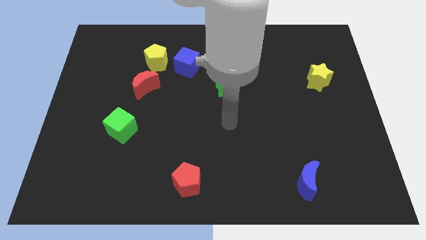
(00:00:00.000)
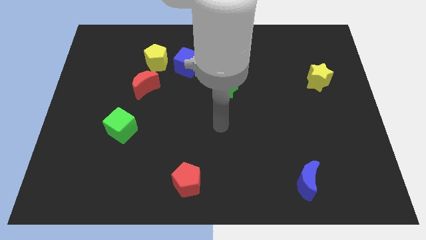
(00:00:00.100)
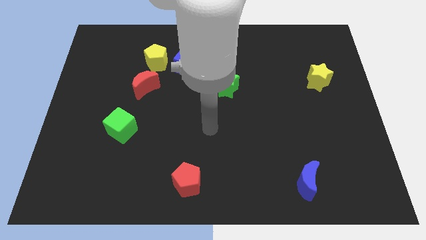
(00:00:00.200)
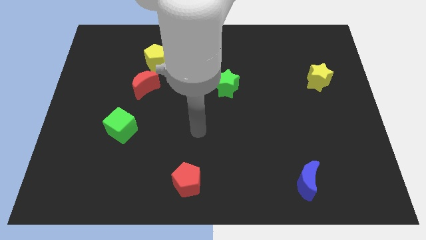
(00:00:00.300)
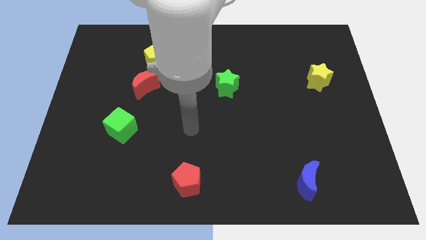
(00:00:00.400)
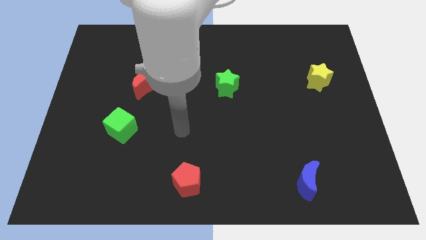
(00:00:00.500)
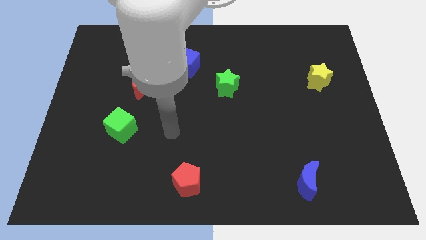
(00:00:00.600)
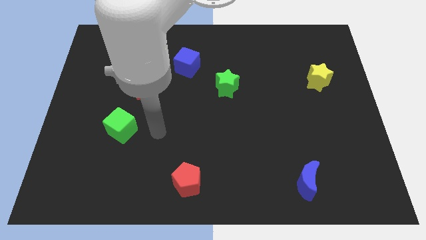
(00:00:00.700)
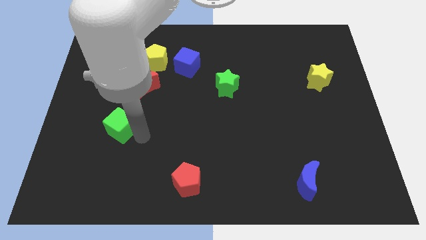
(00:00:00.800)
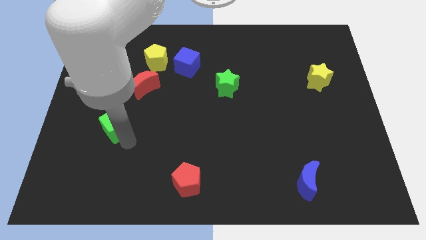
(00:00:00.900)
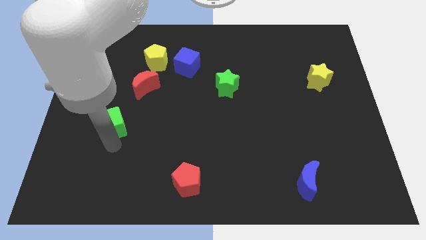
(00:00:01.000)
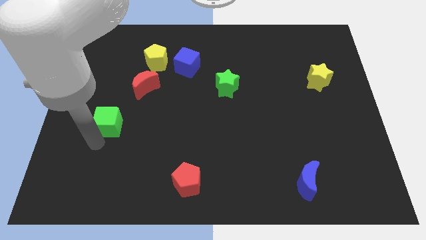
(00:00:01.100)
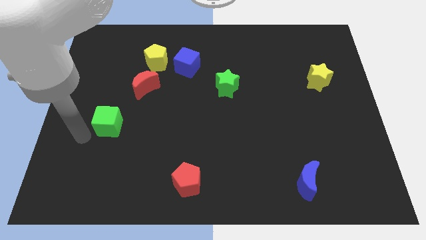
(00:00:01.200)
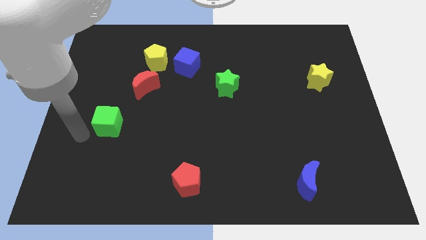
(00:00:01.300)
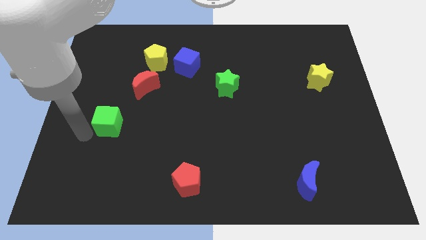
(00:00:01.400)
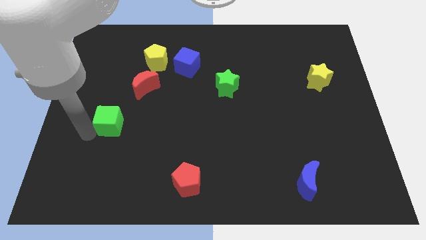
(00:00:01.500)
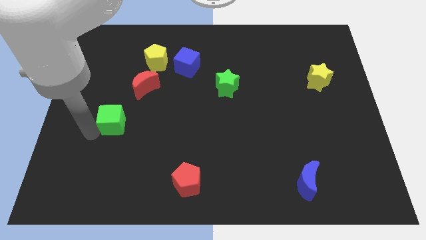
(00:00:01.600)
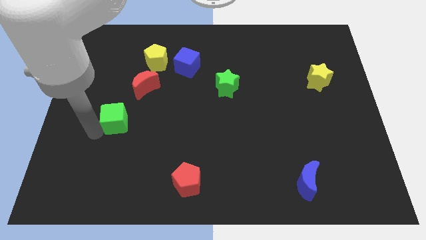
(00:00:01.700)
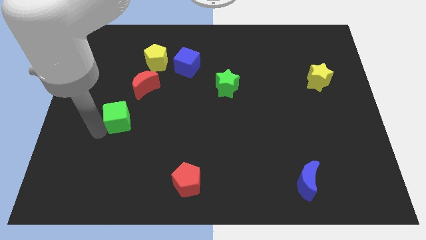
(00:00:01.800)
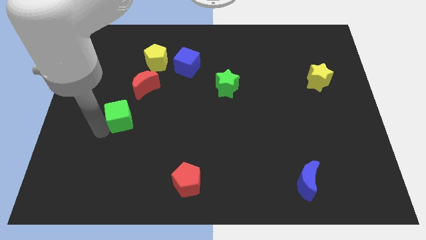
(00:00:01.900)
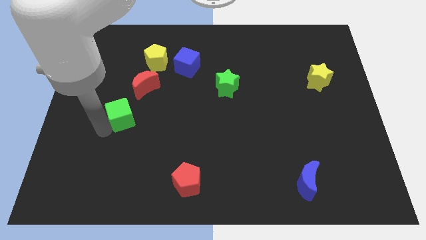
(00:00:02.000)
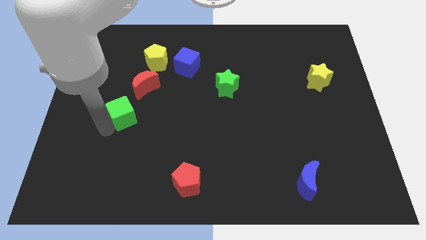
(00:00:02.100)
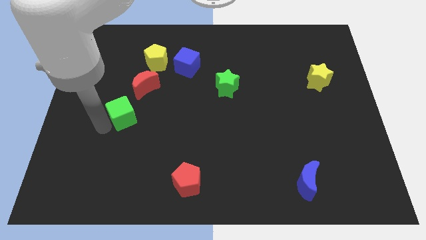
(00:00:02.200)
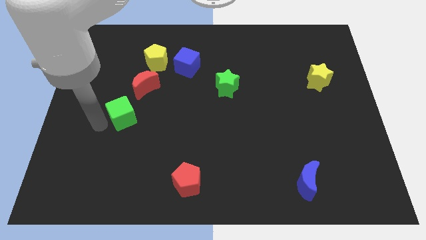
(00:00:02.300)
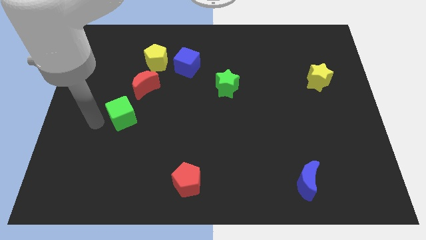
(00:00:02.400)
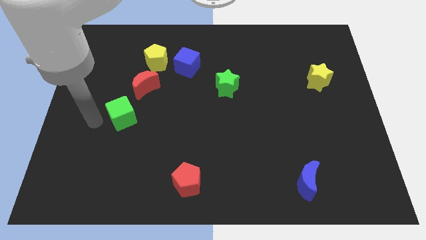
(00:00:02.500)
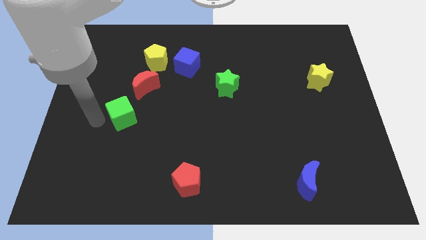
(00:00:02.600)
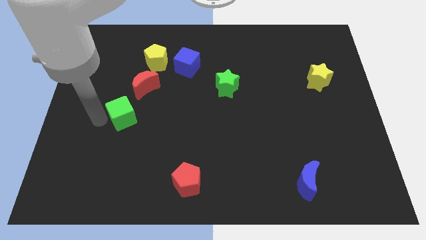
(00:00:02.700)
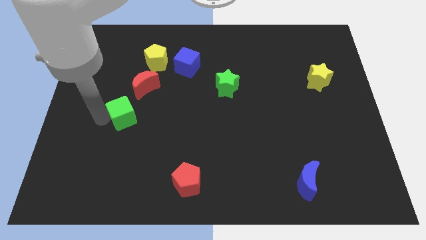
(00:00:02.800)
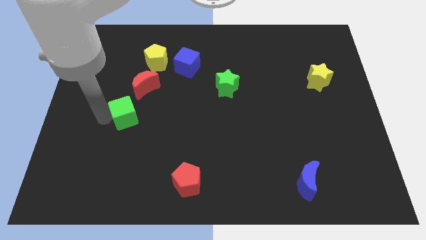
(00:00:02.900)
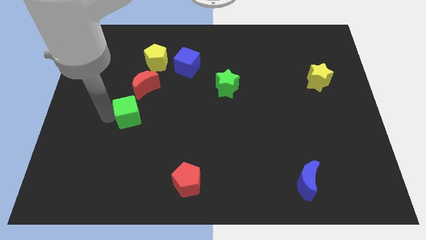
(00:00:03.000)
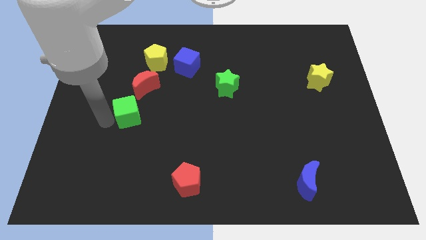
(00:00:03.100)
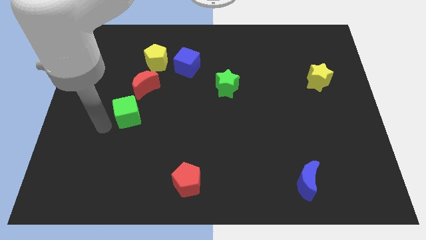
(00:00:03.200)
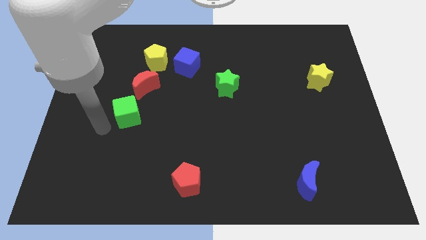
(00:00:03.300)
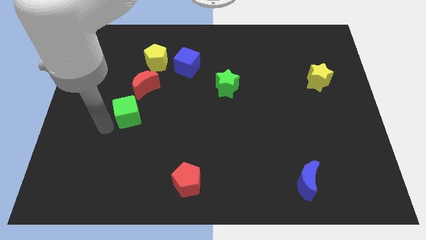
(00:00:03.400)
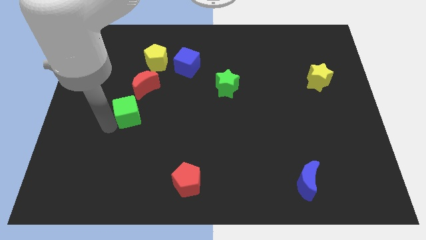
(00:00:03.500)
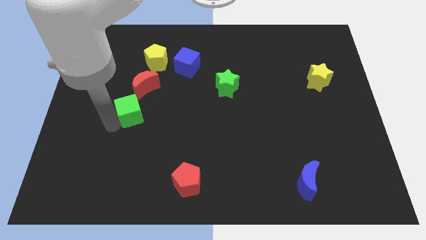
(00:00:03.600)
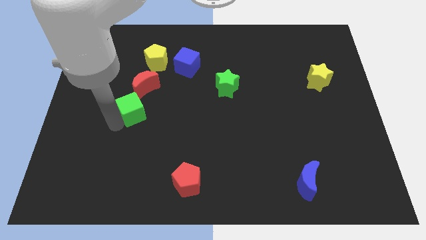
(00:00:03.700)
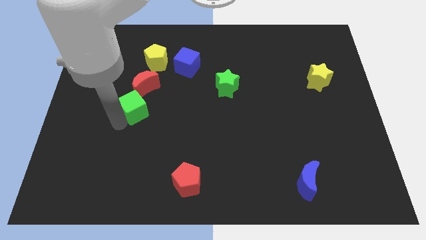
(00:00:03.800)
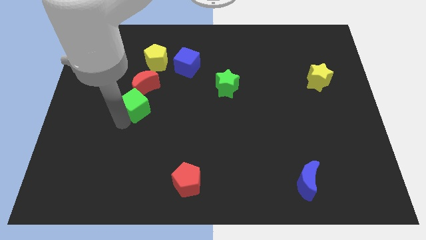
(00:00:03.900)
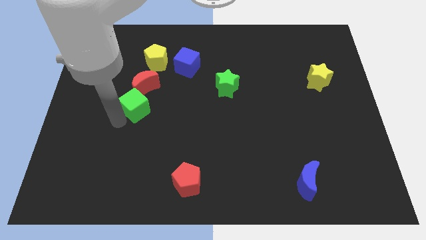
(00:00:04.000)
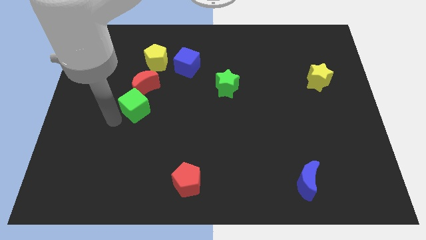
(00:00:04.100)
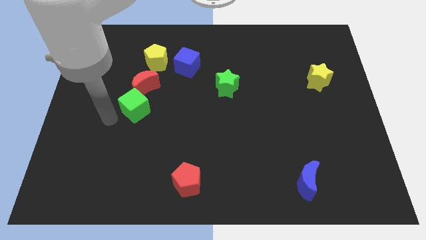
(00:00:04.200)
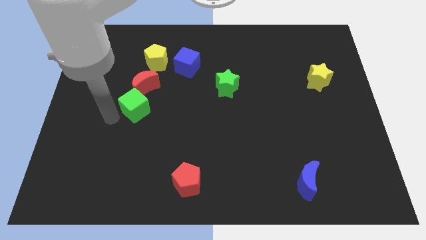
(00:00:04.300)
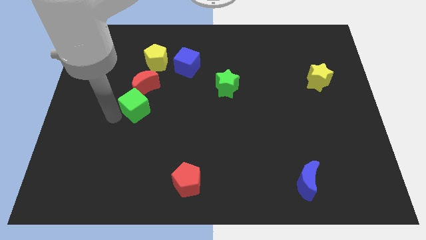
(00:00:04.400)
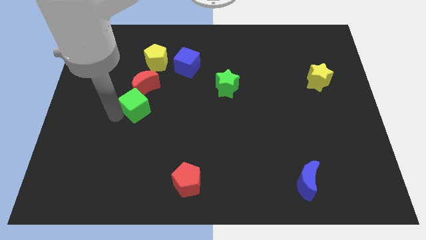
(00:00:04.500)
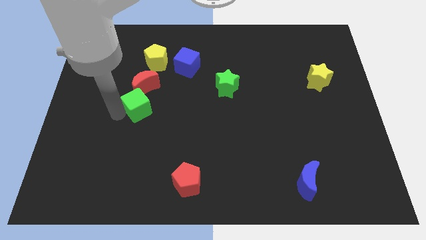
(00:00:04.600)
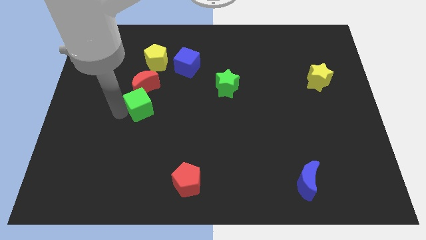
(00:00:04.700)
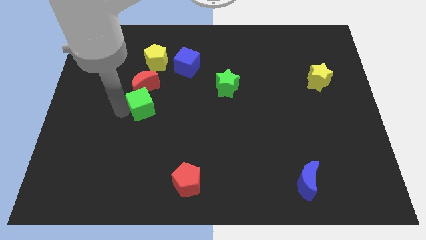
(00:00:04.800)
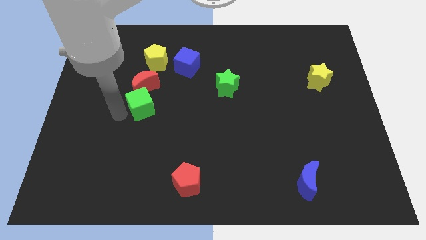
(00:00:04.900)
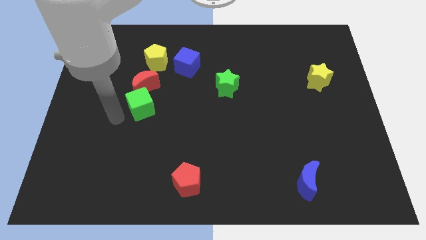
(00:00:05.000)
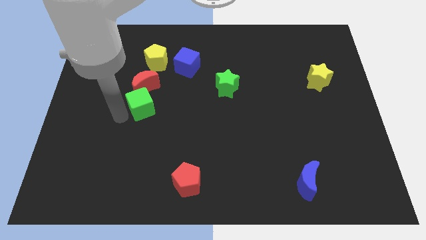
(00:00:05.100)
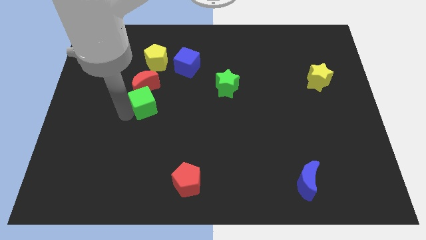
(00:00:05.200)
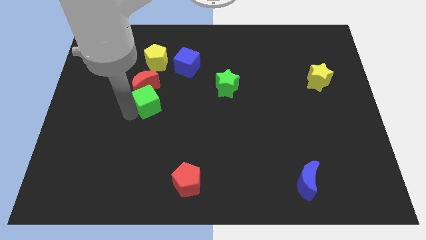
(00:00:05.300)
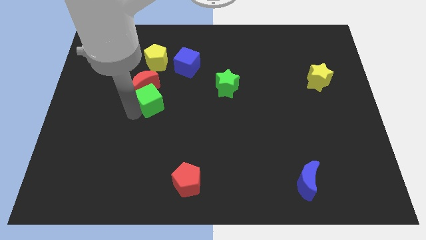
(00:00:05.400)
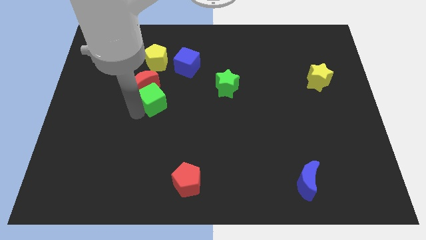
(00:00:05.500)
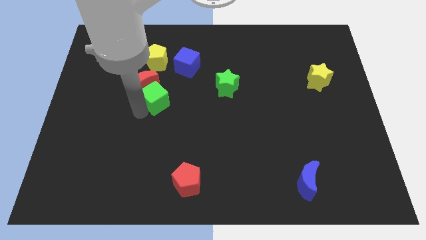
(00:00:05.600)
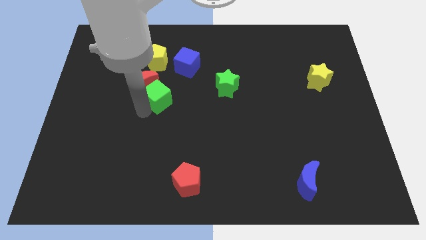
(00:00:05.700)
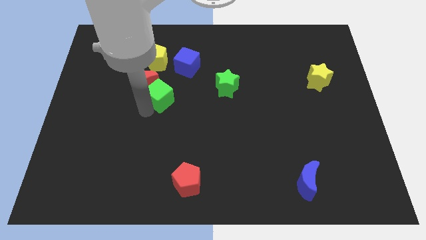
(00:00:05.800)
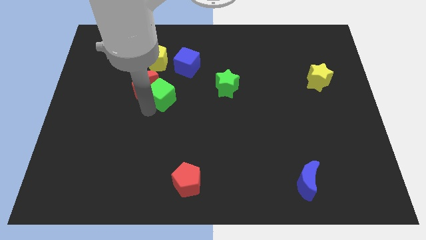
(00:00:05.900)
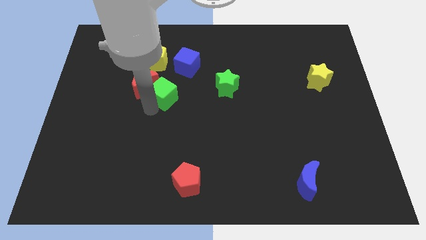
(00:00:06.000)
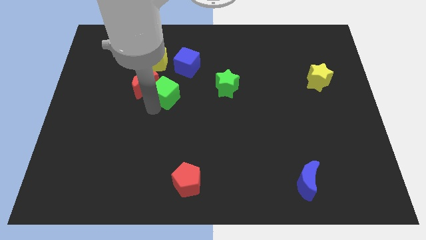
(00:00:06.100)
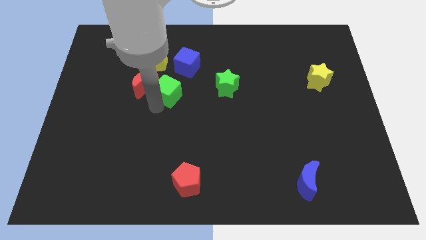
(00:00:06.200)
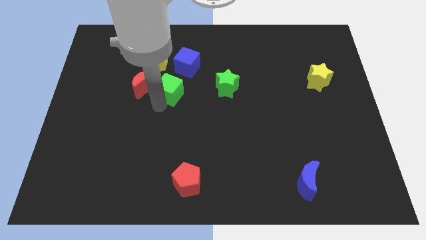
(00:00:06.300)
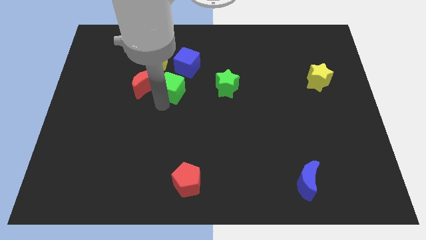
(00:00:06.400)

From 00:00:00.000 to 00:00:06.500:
slide the green cube diagonally down and to the right of the yellow pentagon
